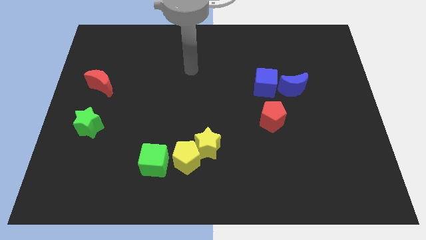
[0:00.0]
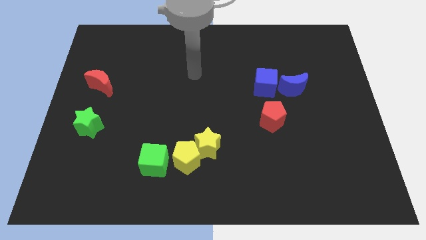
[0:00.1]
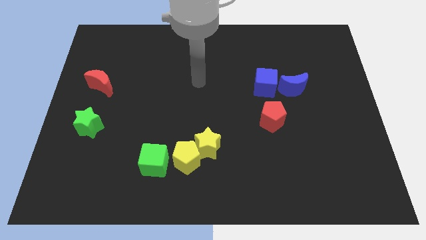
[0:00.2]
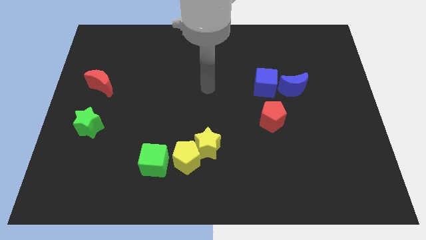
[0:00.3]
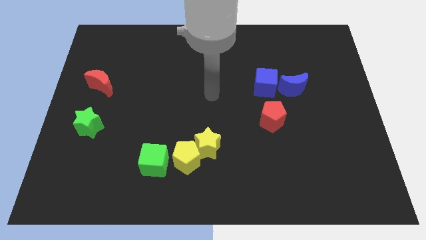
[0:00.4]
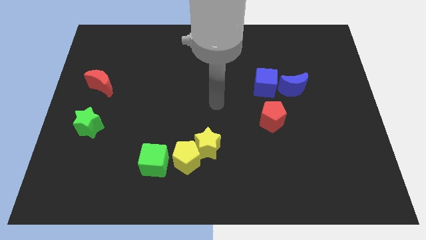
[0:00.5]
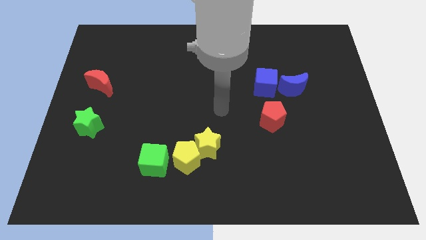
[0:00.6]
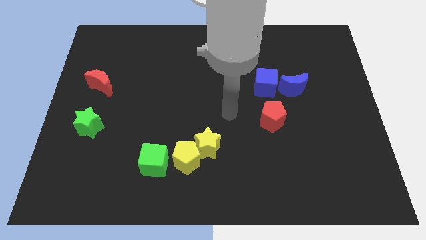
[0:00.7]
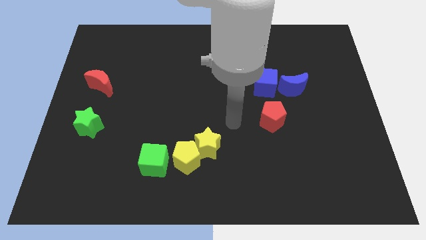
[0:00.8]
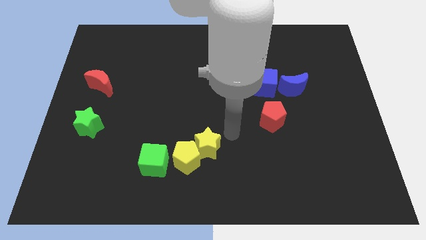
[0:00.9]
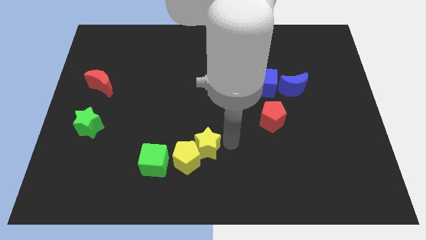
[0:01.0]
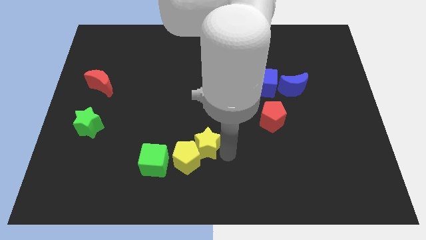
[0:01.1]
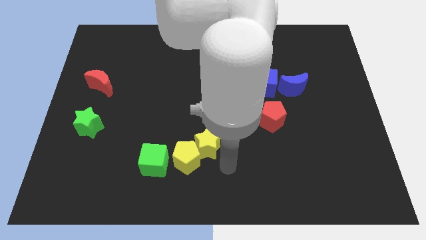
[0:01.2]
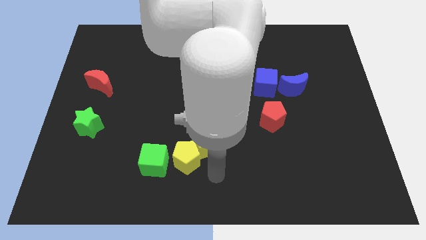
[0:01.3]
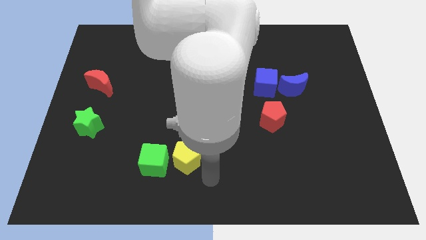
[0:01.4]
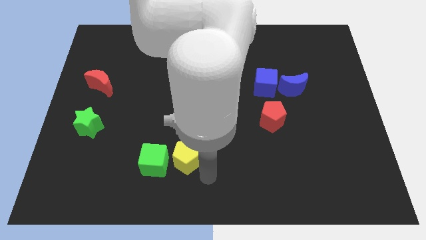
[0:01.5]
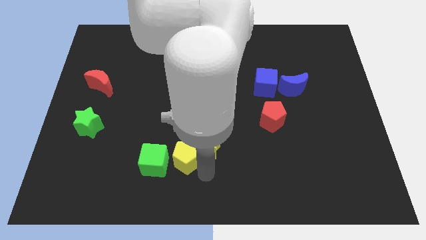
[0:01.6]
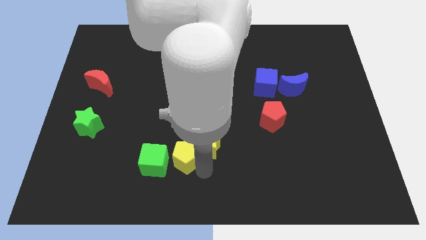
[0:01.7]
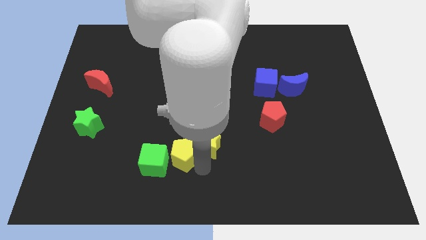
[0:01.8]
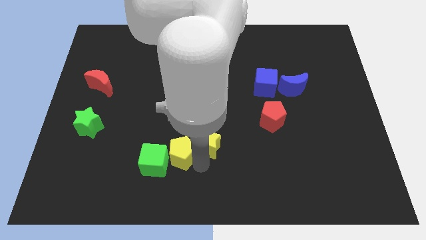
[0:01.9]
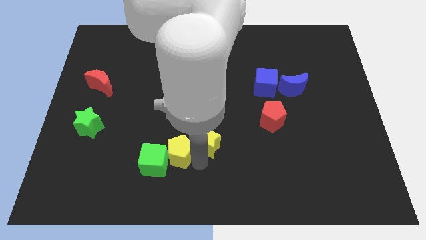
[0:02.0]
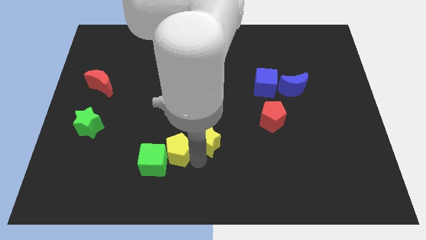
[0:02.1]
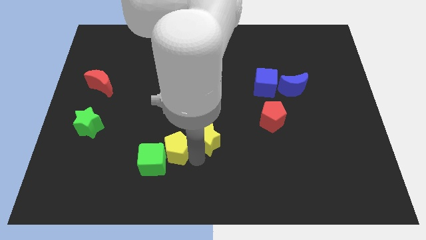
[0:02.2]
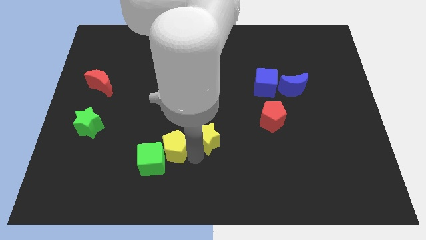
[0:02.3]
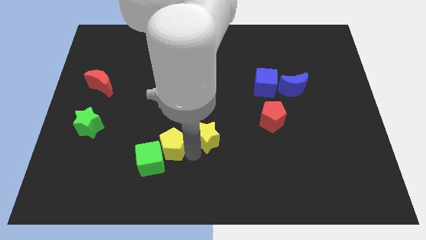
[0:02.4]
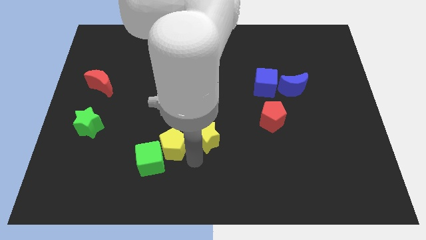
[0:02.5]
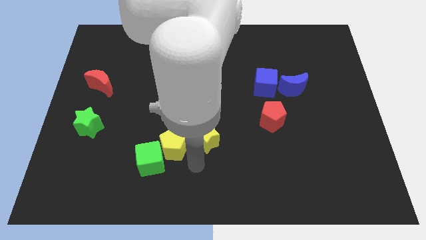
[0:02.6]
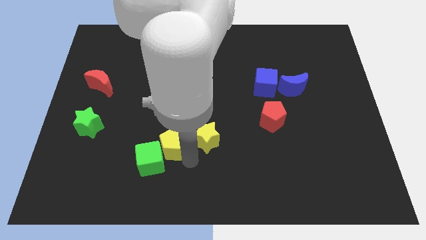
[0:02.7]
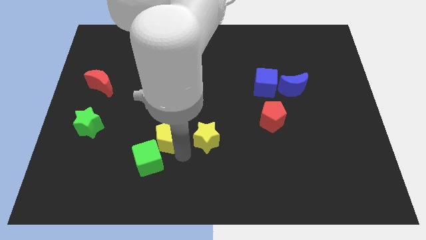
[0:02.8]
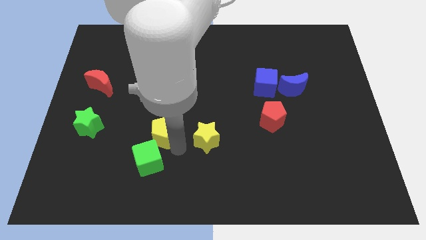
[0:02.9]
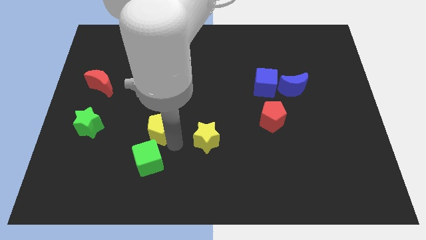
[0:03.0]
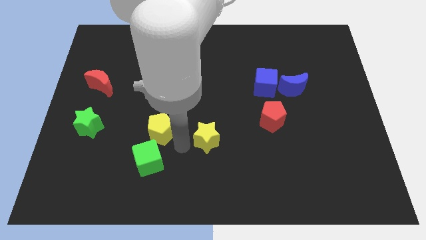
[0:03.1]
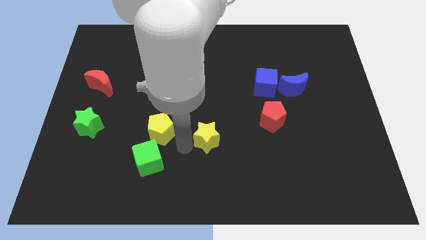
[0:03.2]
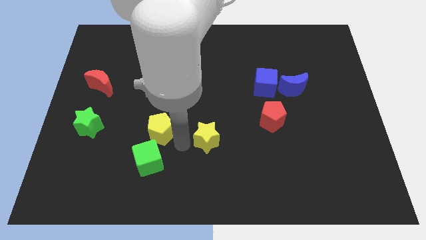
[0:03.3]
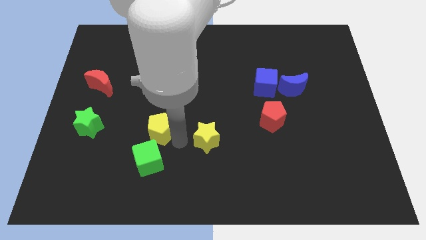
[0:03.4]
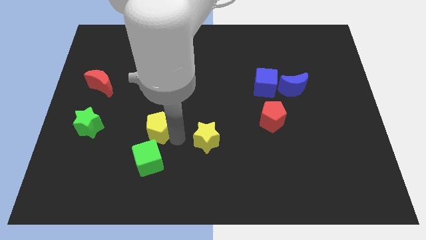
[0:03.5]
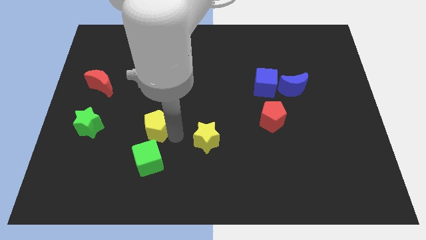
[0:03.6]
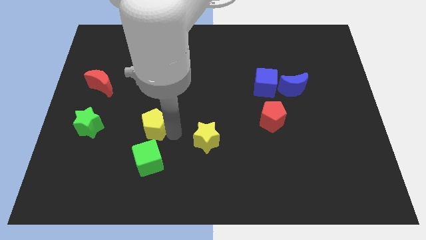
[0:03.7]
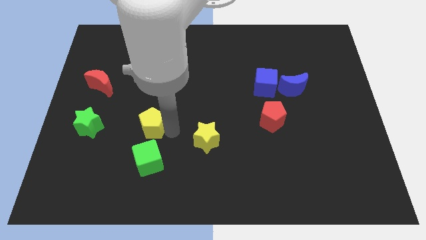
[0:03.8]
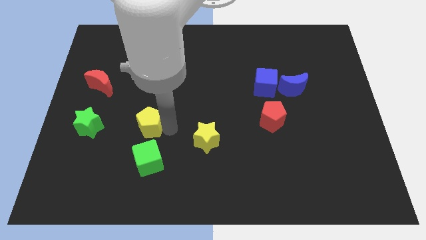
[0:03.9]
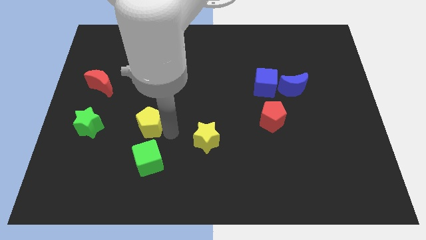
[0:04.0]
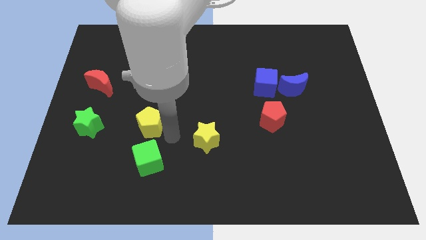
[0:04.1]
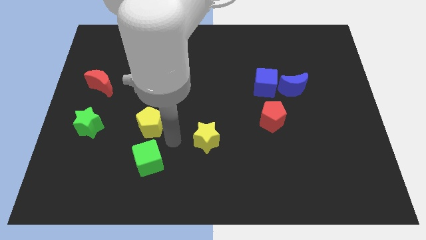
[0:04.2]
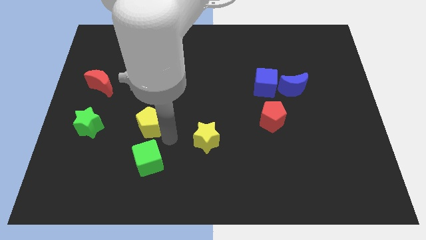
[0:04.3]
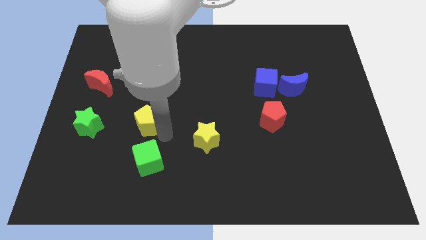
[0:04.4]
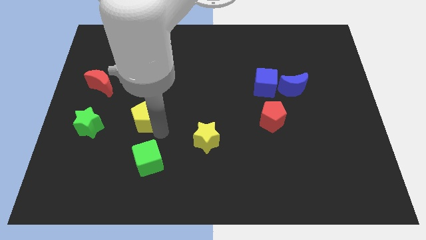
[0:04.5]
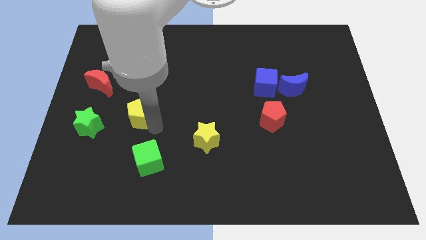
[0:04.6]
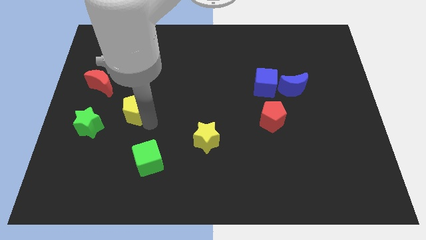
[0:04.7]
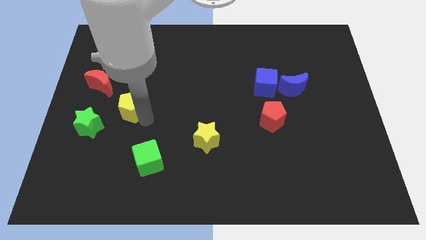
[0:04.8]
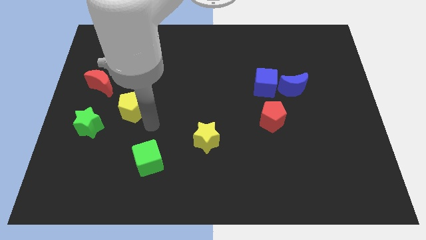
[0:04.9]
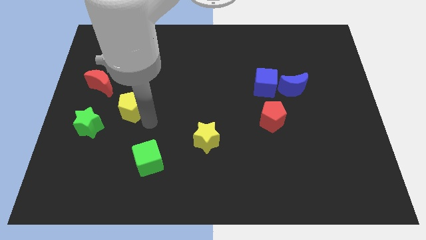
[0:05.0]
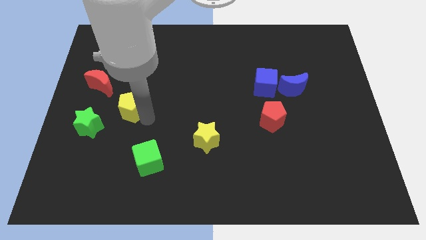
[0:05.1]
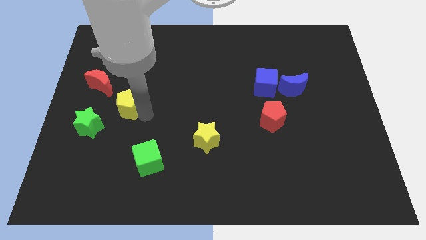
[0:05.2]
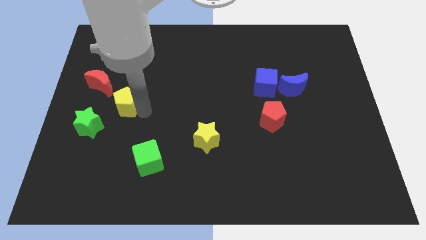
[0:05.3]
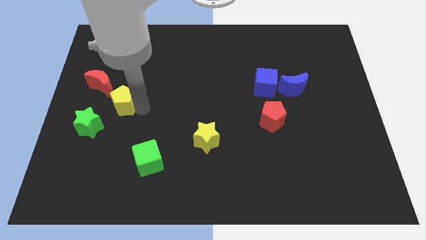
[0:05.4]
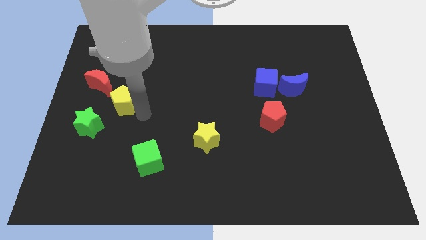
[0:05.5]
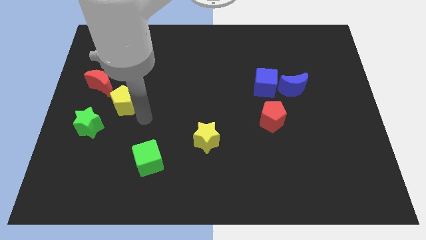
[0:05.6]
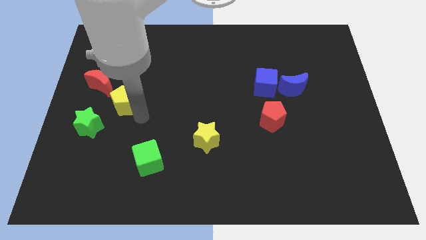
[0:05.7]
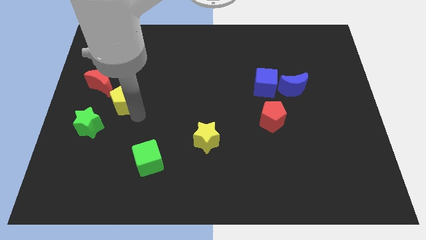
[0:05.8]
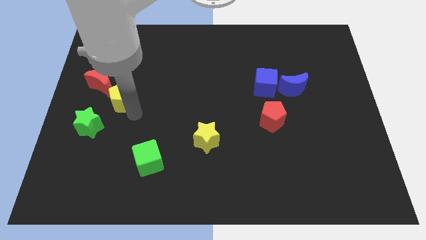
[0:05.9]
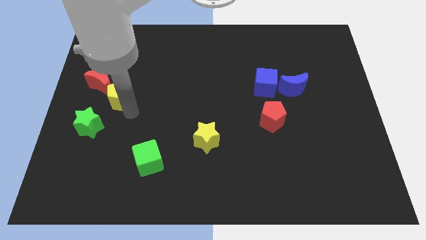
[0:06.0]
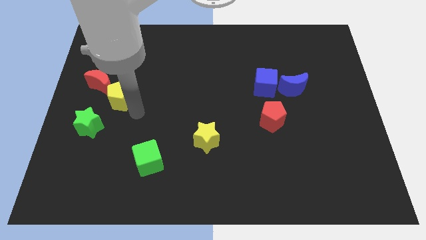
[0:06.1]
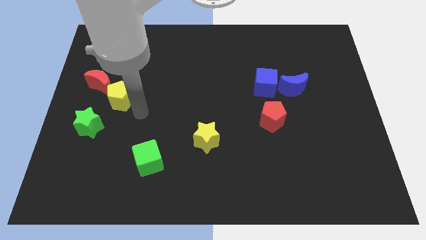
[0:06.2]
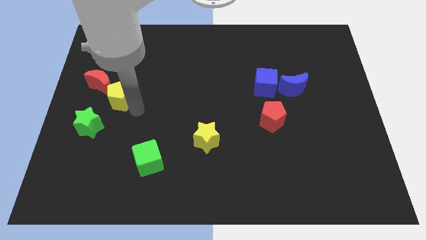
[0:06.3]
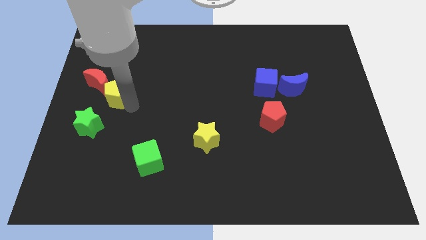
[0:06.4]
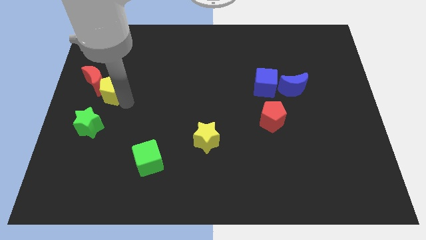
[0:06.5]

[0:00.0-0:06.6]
put the yellow pentagon next to the red moon
